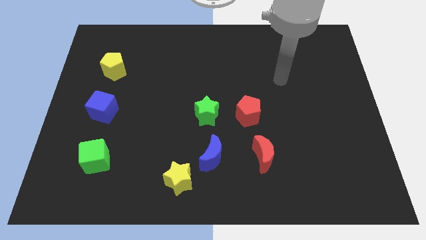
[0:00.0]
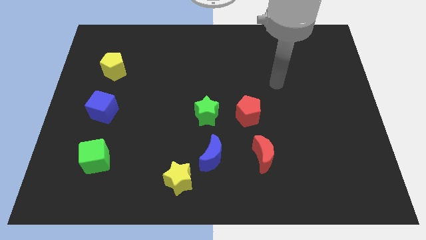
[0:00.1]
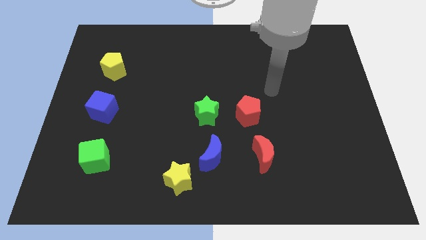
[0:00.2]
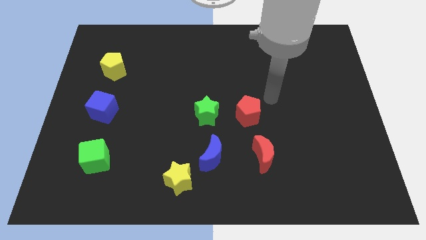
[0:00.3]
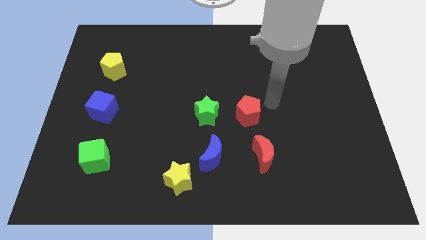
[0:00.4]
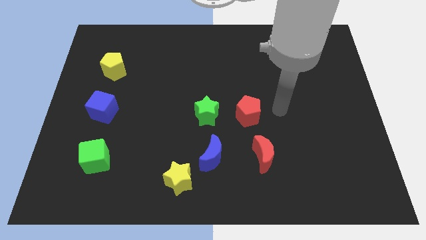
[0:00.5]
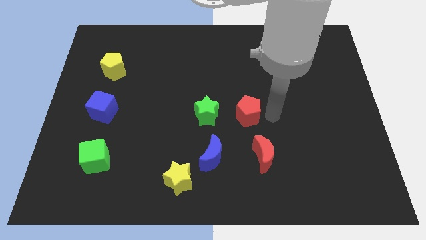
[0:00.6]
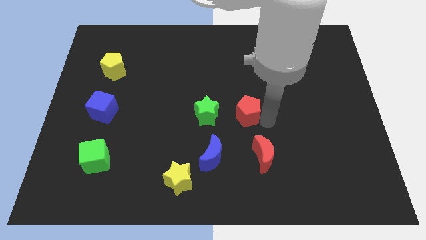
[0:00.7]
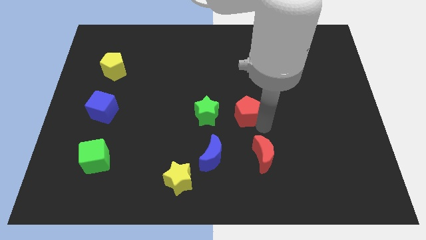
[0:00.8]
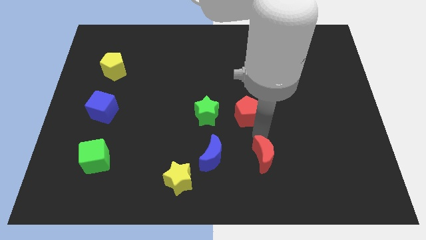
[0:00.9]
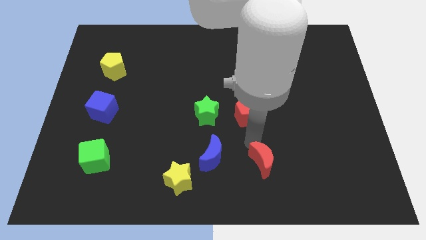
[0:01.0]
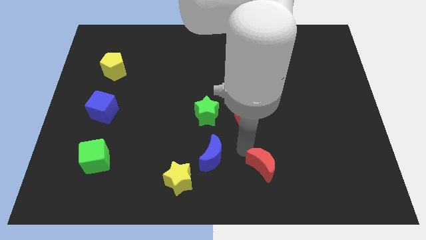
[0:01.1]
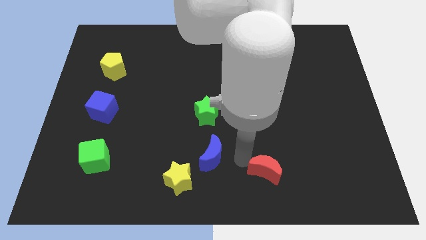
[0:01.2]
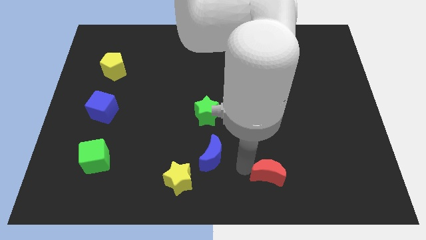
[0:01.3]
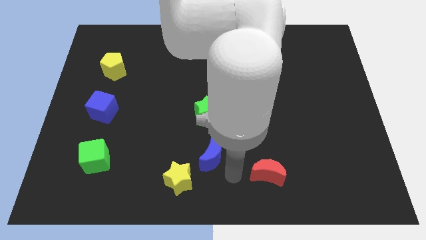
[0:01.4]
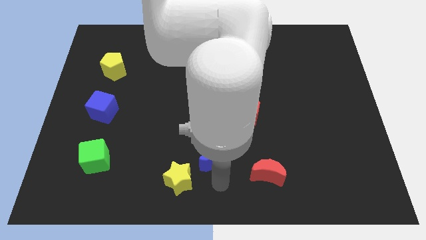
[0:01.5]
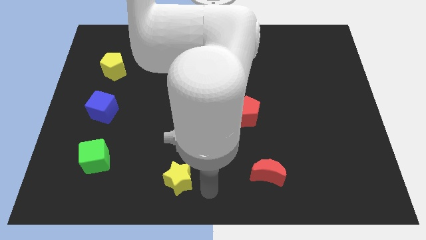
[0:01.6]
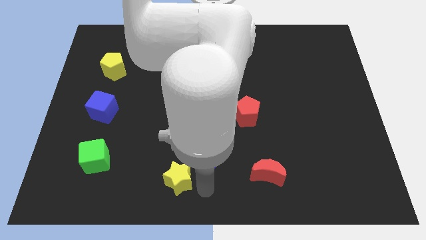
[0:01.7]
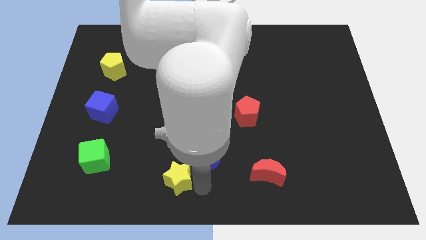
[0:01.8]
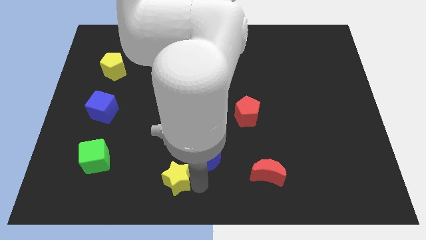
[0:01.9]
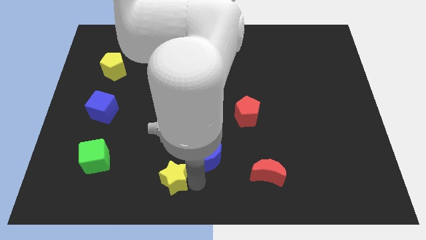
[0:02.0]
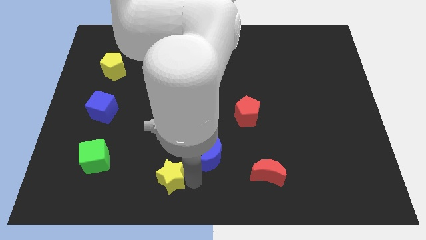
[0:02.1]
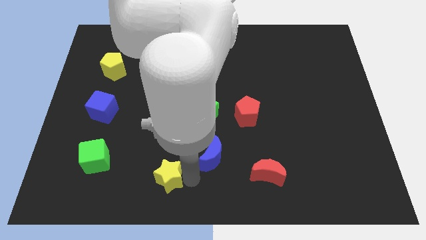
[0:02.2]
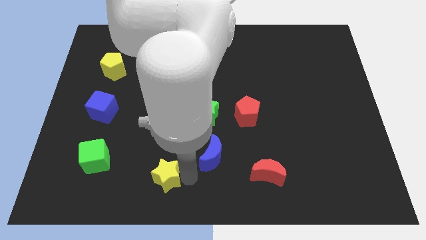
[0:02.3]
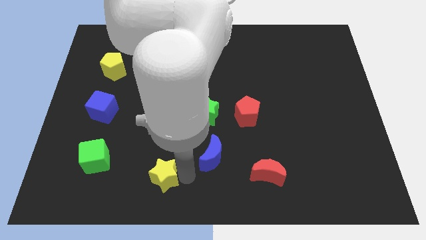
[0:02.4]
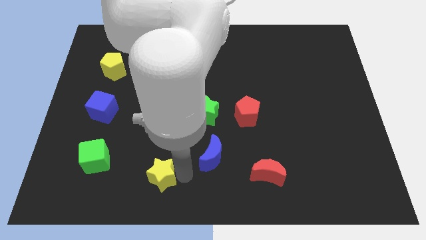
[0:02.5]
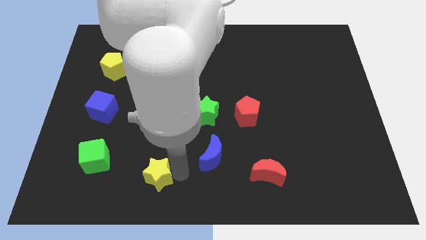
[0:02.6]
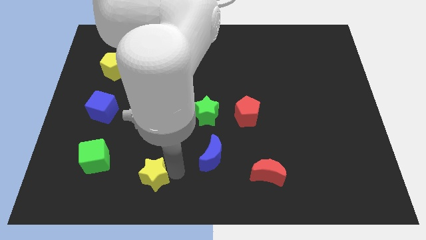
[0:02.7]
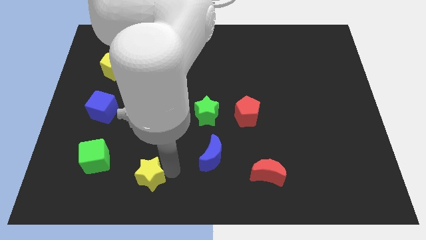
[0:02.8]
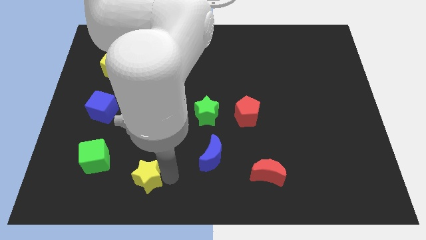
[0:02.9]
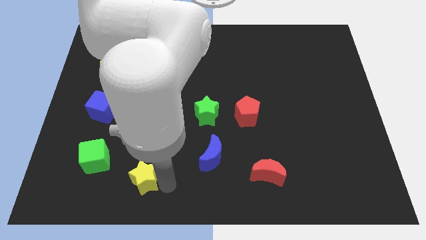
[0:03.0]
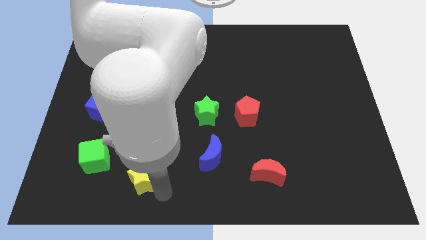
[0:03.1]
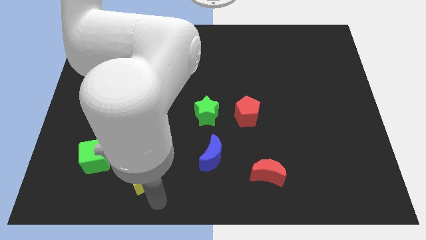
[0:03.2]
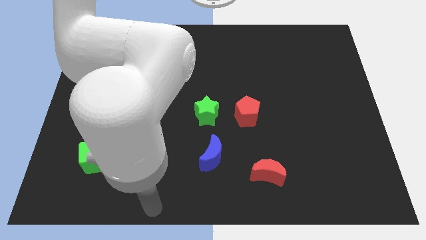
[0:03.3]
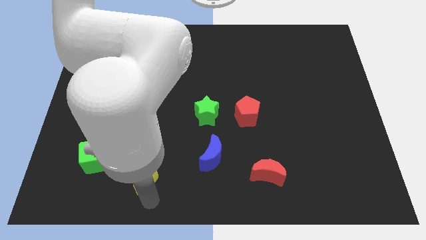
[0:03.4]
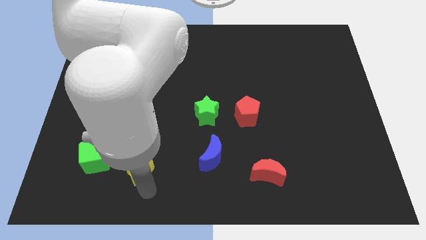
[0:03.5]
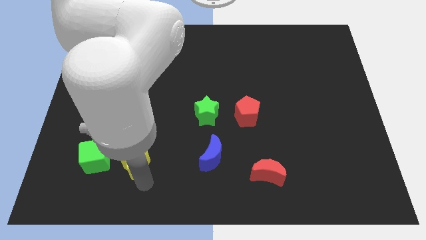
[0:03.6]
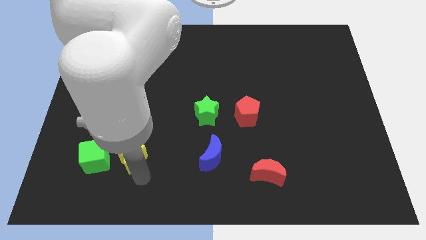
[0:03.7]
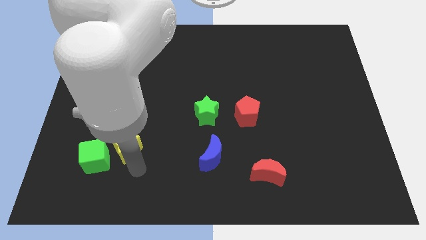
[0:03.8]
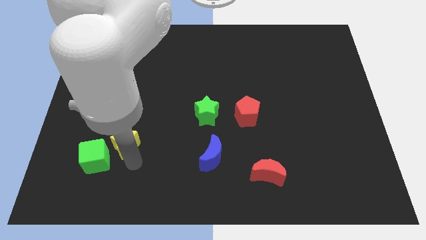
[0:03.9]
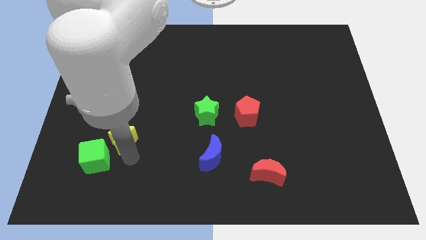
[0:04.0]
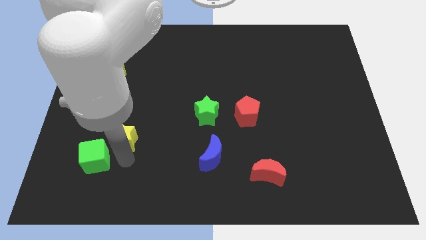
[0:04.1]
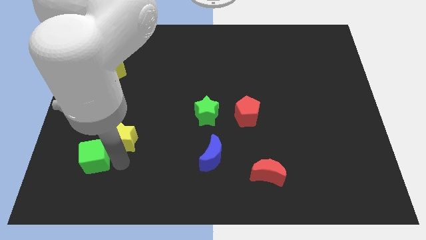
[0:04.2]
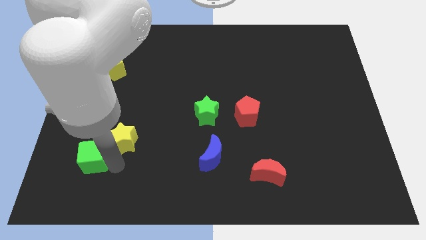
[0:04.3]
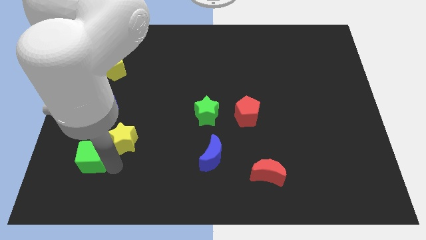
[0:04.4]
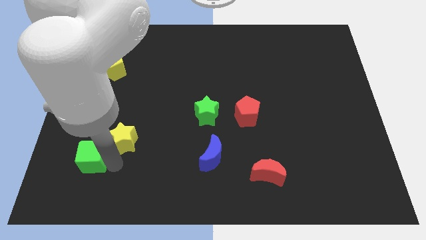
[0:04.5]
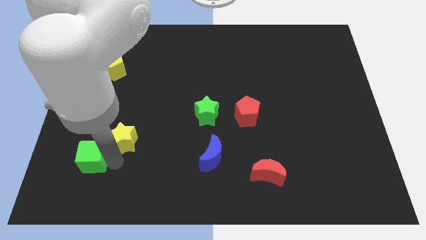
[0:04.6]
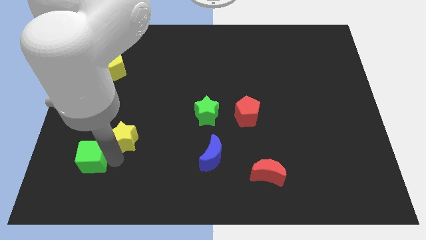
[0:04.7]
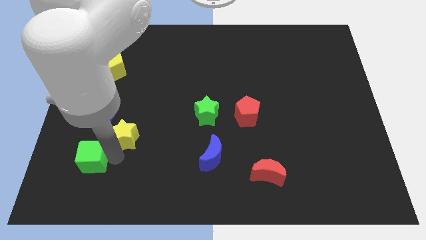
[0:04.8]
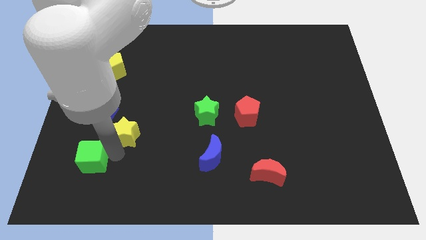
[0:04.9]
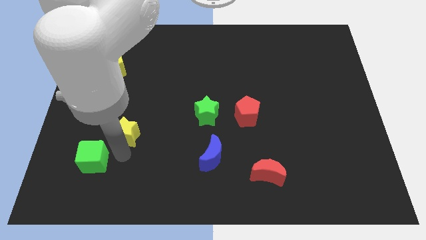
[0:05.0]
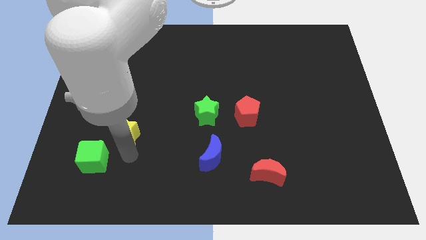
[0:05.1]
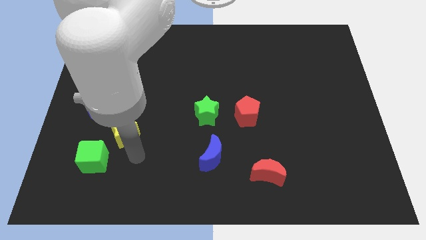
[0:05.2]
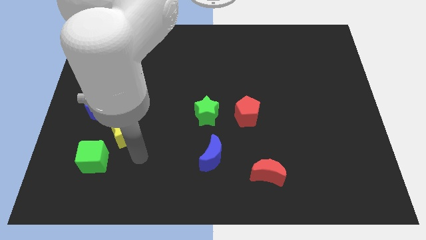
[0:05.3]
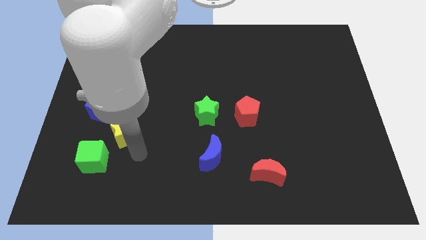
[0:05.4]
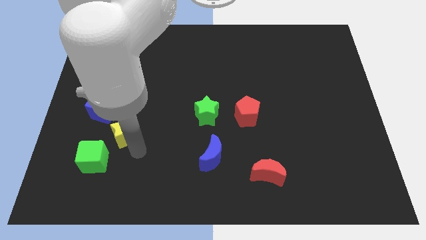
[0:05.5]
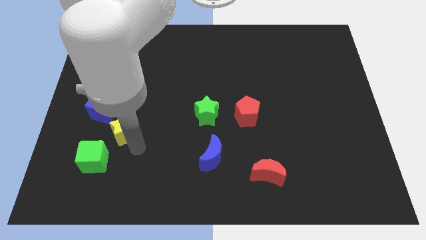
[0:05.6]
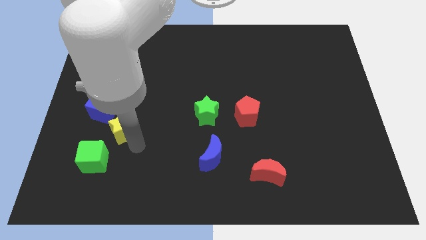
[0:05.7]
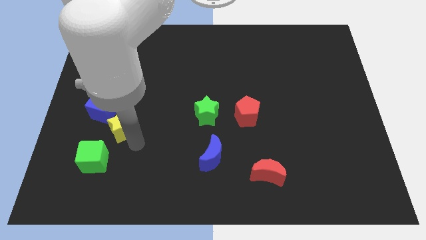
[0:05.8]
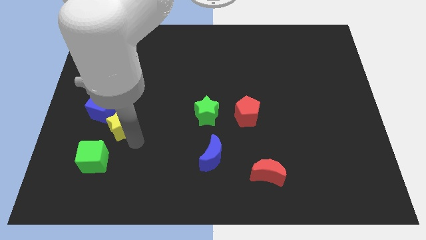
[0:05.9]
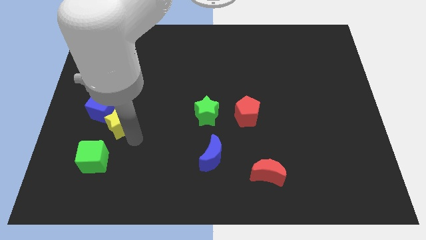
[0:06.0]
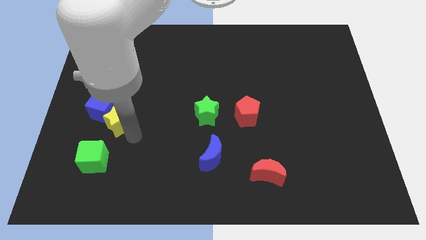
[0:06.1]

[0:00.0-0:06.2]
push the yellow star towards the blue cube
